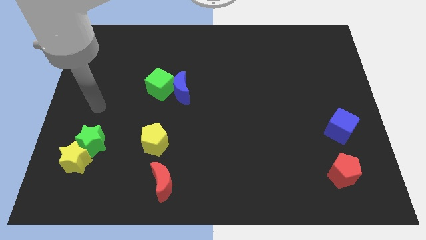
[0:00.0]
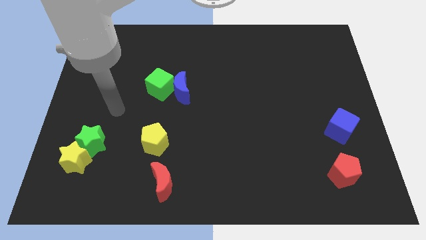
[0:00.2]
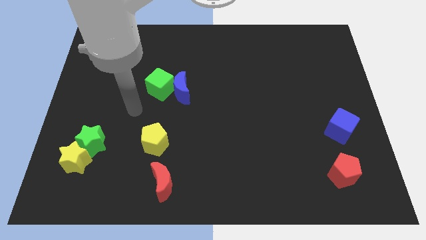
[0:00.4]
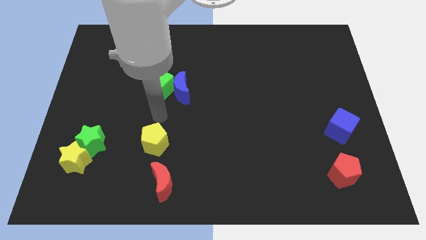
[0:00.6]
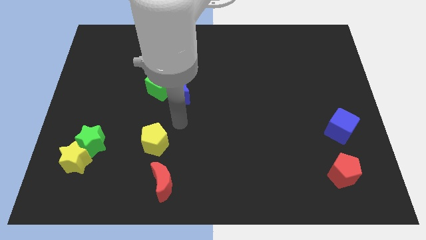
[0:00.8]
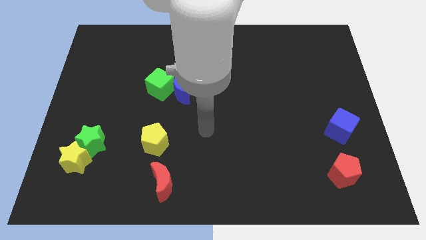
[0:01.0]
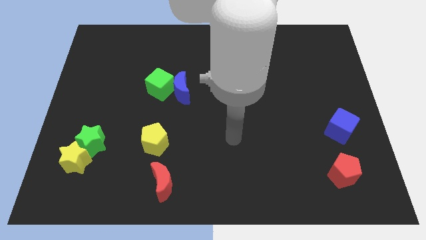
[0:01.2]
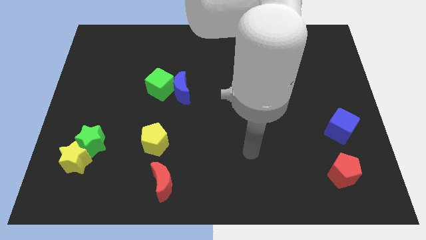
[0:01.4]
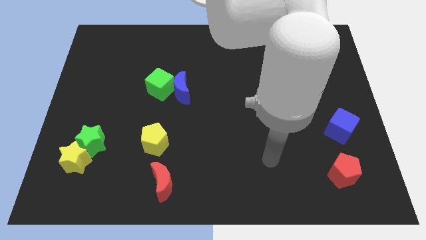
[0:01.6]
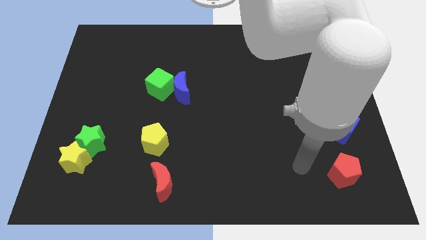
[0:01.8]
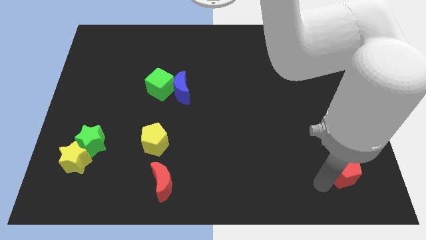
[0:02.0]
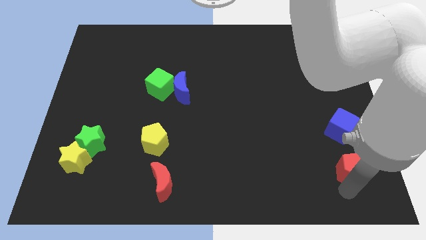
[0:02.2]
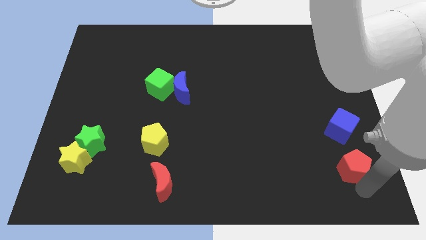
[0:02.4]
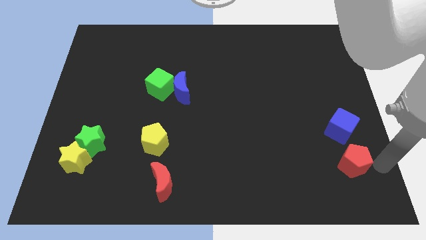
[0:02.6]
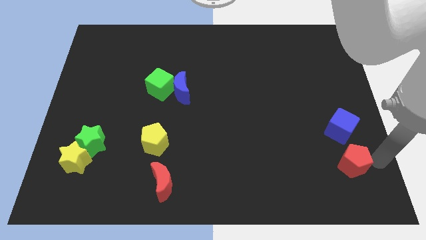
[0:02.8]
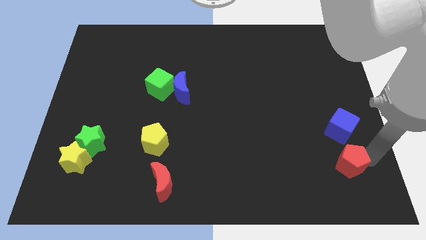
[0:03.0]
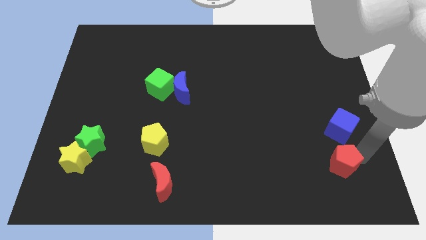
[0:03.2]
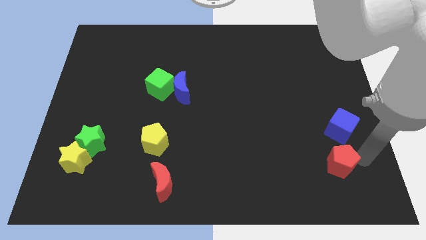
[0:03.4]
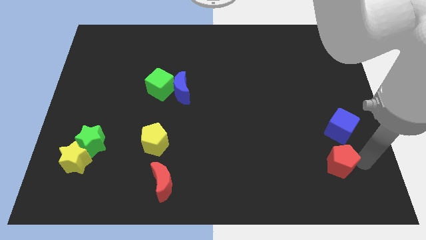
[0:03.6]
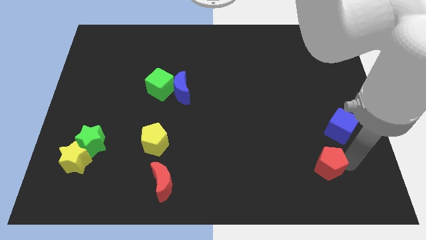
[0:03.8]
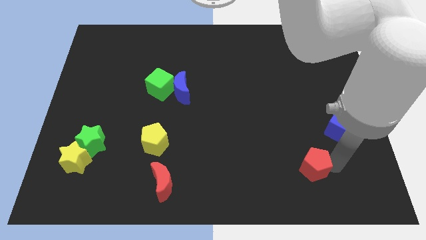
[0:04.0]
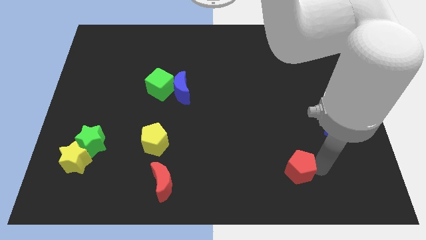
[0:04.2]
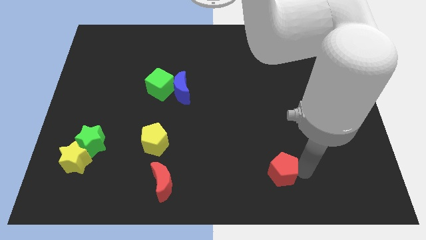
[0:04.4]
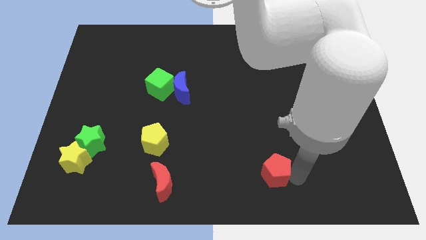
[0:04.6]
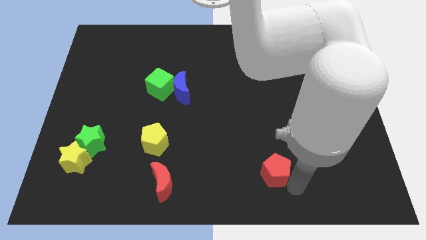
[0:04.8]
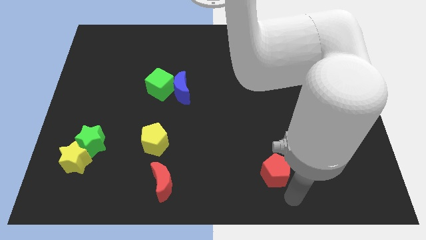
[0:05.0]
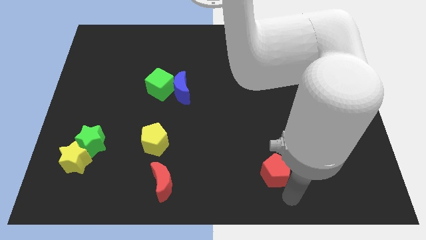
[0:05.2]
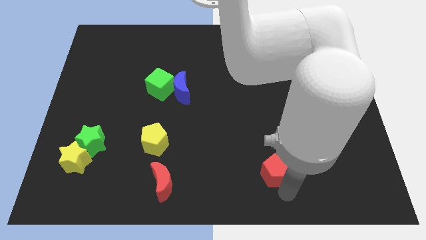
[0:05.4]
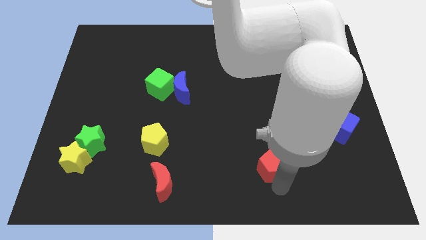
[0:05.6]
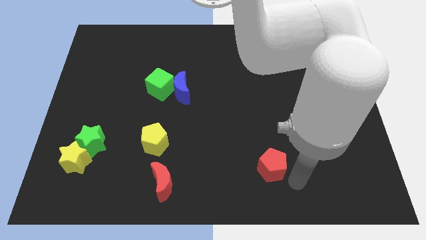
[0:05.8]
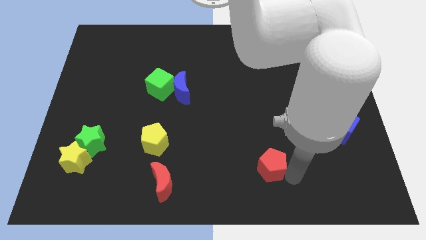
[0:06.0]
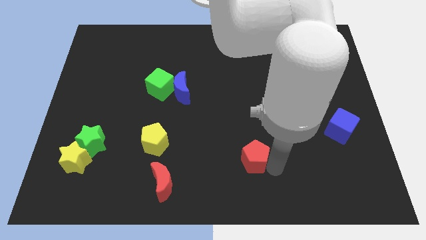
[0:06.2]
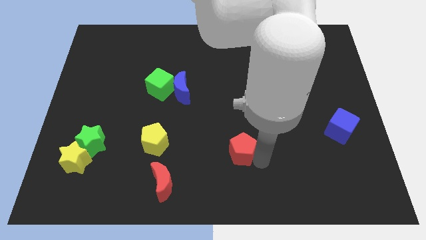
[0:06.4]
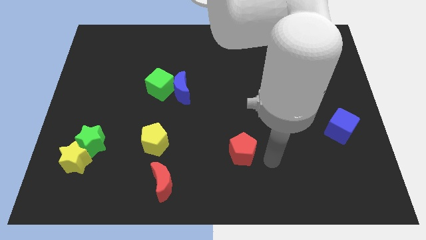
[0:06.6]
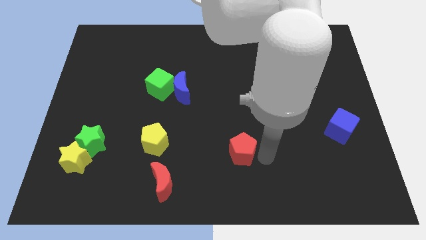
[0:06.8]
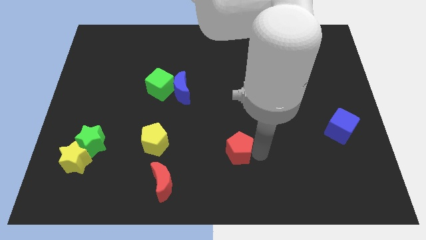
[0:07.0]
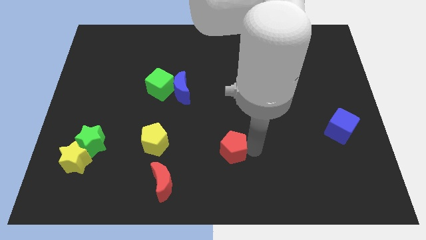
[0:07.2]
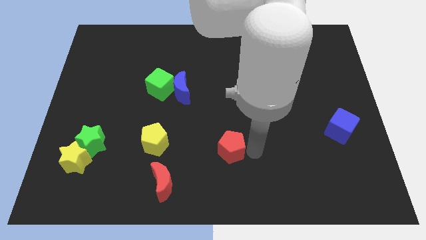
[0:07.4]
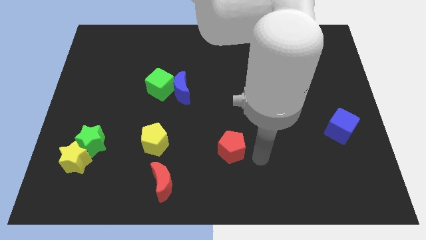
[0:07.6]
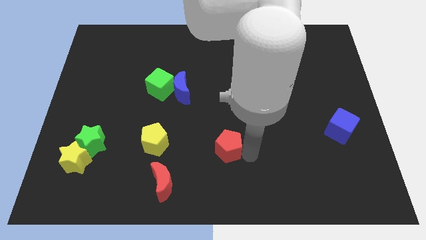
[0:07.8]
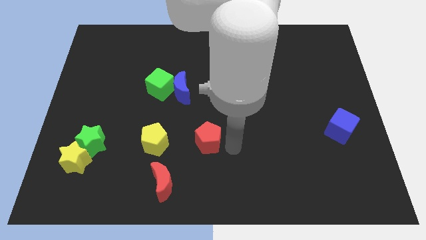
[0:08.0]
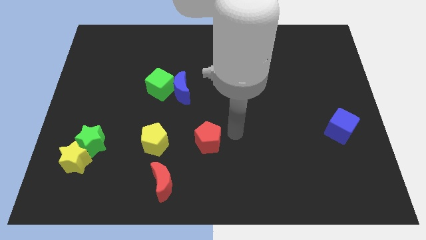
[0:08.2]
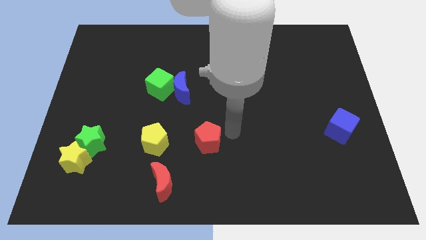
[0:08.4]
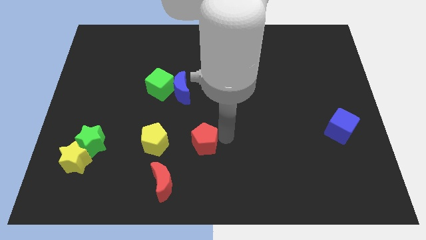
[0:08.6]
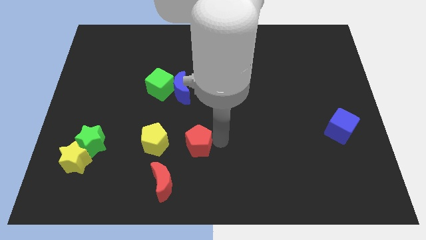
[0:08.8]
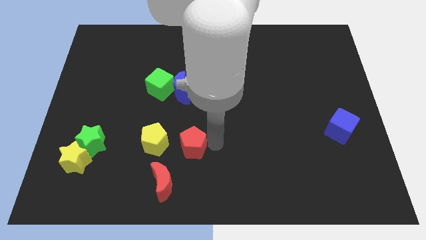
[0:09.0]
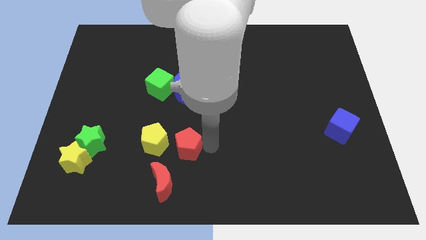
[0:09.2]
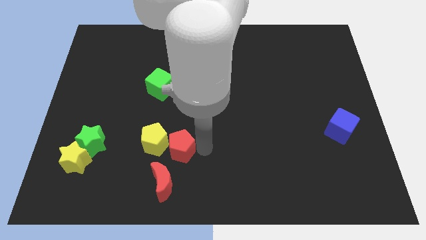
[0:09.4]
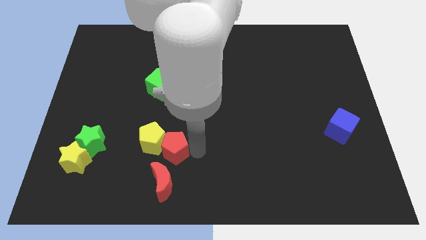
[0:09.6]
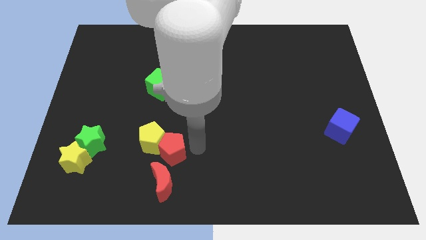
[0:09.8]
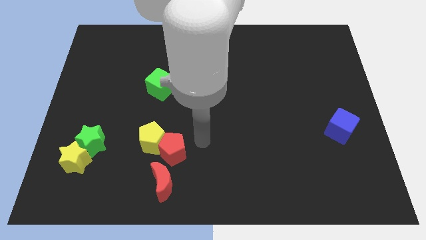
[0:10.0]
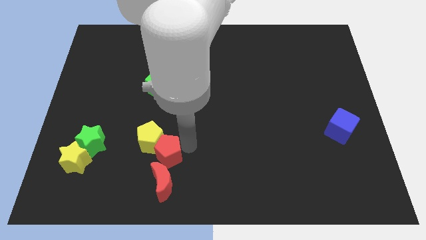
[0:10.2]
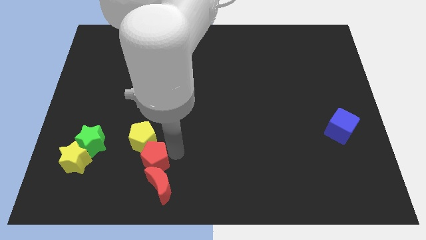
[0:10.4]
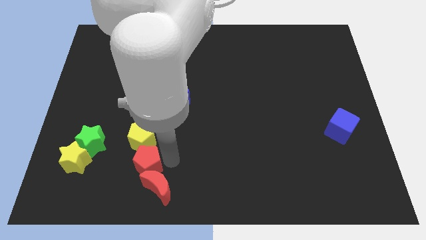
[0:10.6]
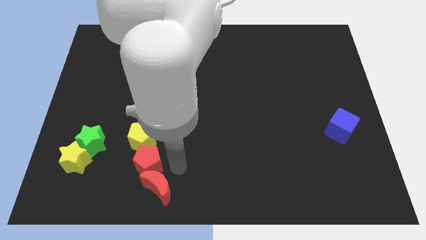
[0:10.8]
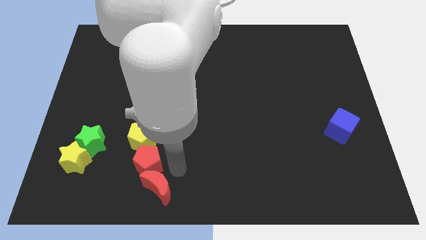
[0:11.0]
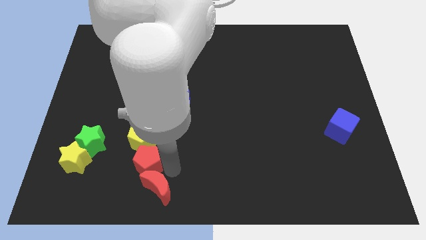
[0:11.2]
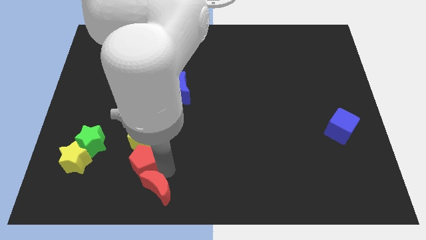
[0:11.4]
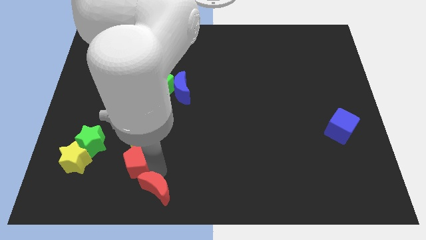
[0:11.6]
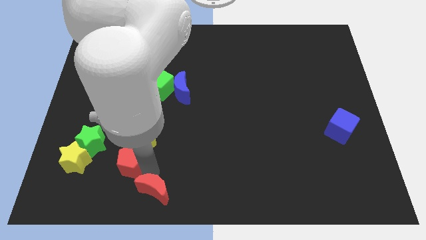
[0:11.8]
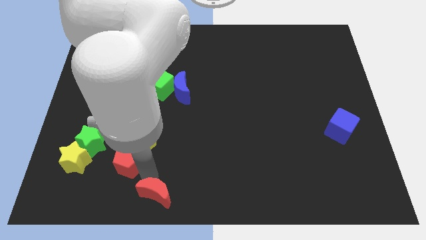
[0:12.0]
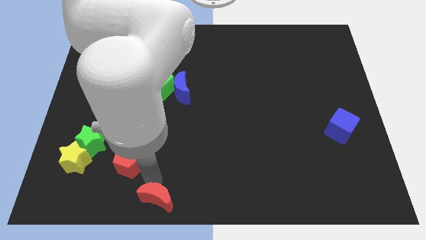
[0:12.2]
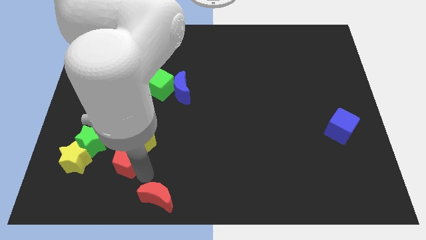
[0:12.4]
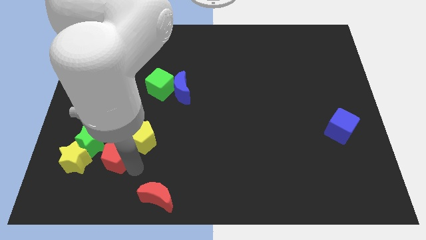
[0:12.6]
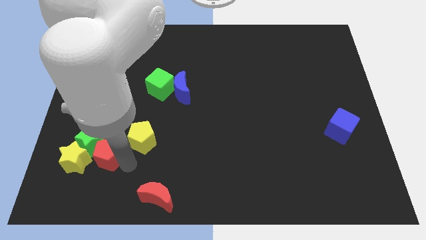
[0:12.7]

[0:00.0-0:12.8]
move the red pentagon close to the green star

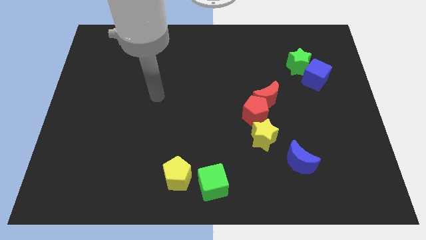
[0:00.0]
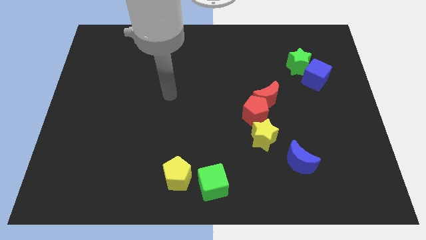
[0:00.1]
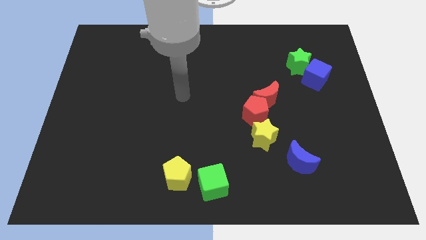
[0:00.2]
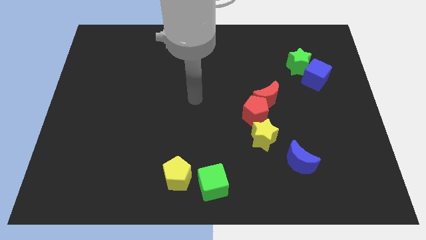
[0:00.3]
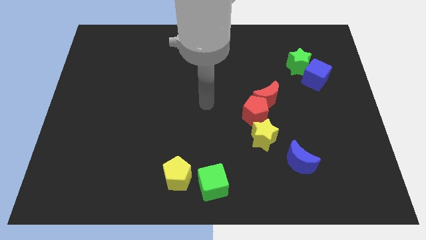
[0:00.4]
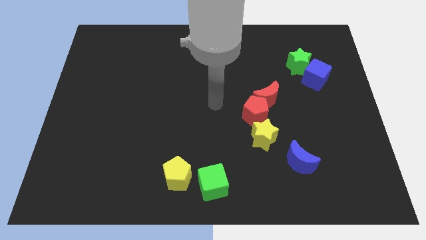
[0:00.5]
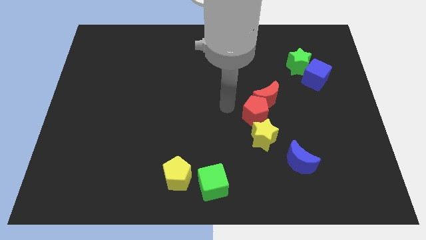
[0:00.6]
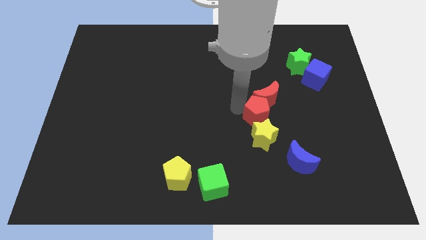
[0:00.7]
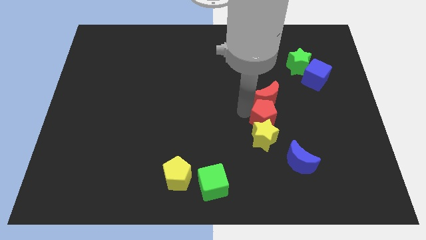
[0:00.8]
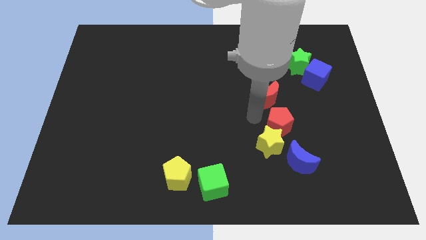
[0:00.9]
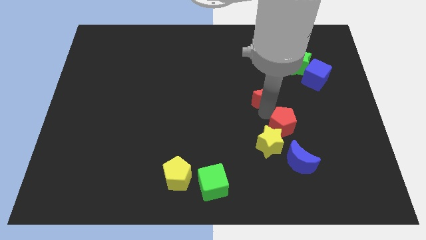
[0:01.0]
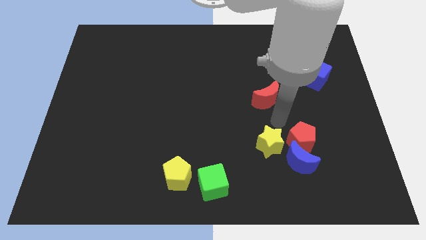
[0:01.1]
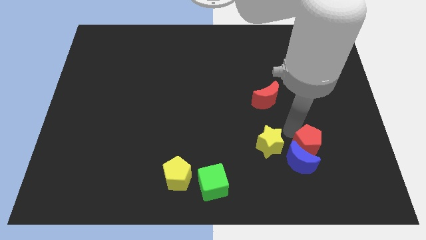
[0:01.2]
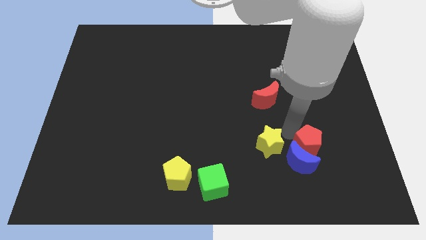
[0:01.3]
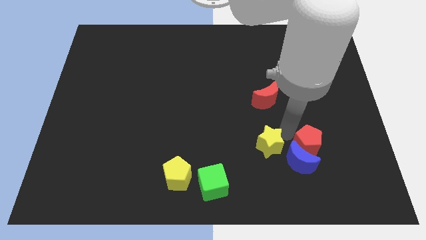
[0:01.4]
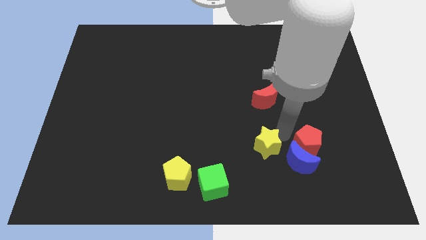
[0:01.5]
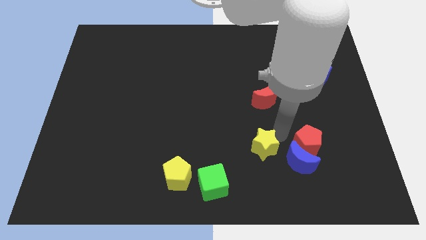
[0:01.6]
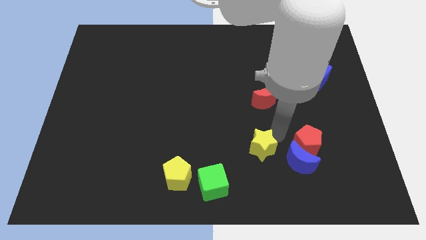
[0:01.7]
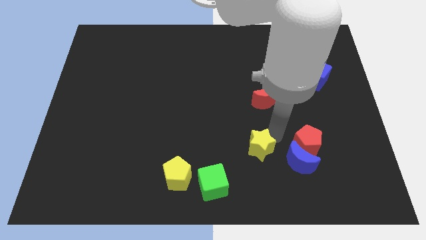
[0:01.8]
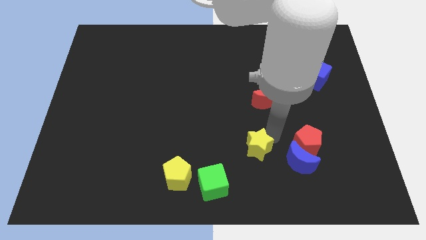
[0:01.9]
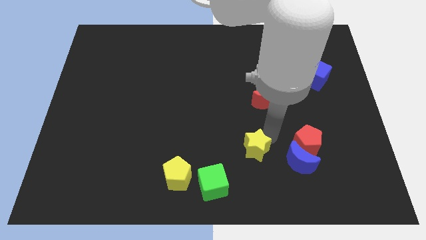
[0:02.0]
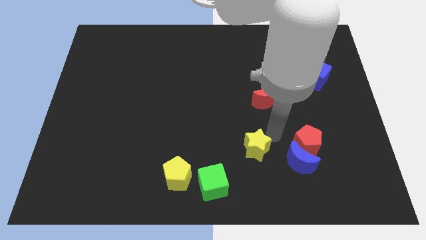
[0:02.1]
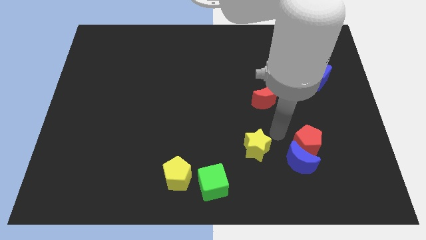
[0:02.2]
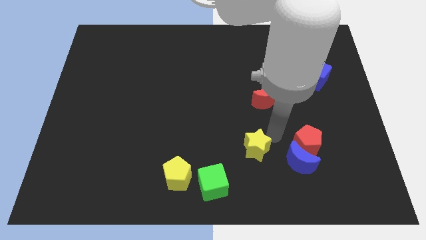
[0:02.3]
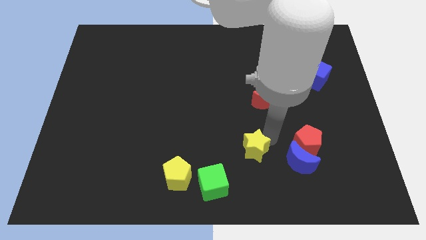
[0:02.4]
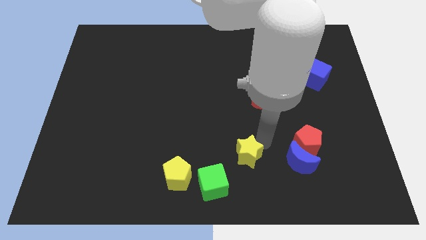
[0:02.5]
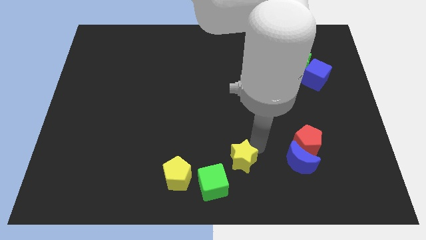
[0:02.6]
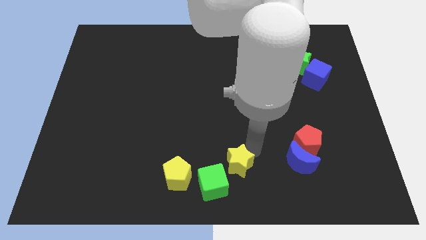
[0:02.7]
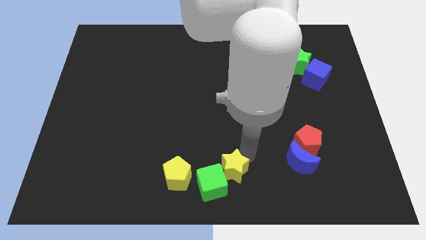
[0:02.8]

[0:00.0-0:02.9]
put the yellow star to the green cube
